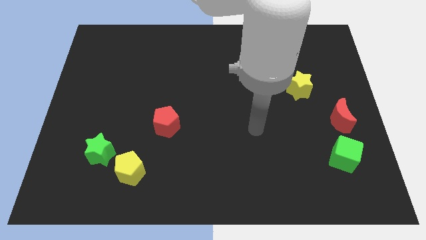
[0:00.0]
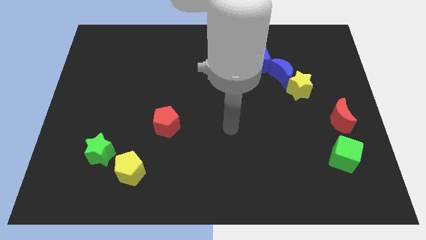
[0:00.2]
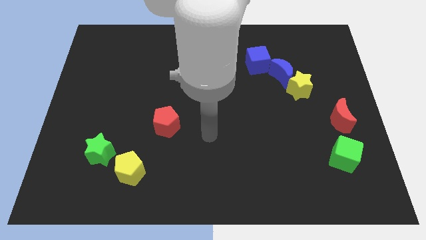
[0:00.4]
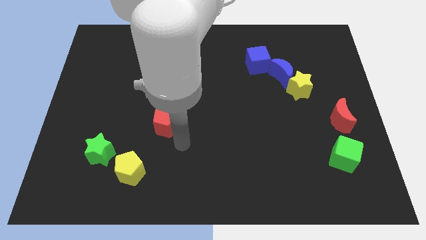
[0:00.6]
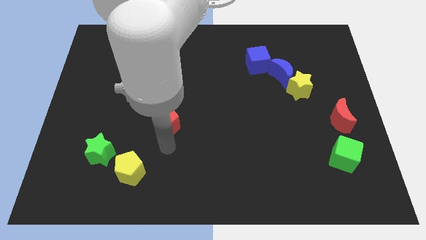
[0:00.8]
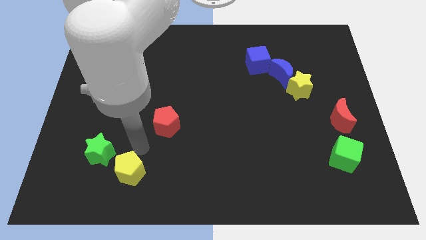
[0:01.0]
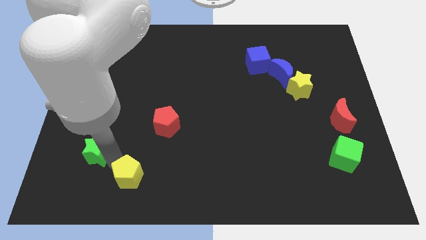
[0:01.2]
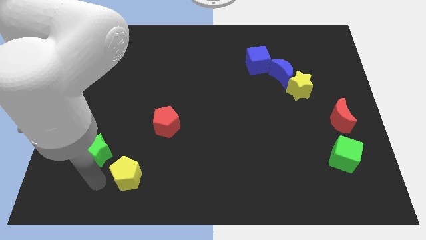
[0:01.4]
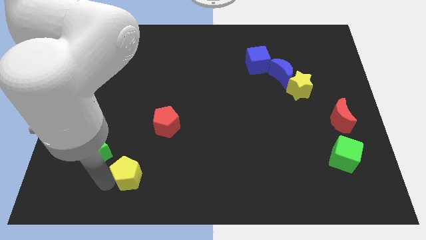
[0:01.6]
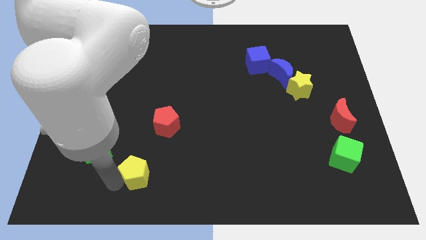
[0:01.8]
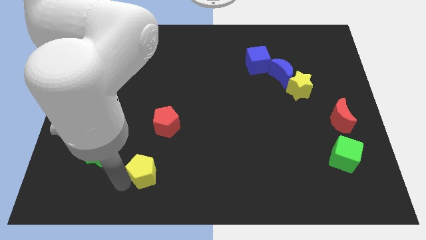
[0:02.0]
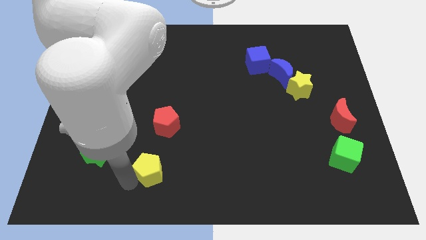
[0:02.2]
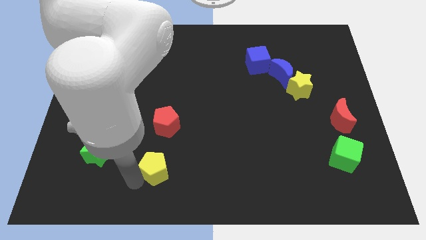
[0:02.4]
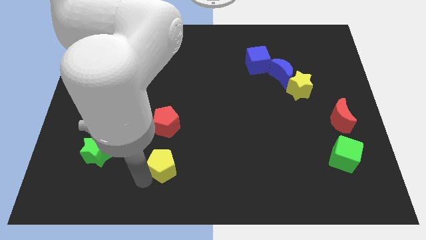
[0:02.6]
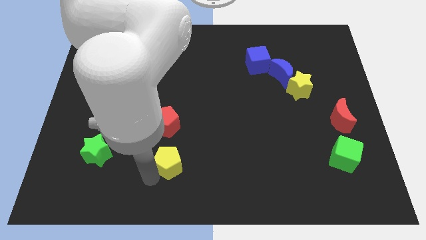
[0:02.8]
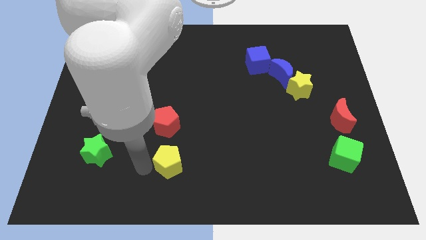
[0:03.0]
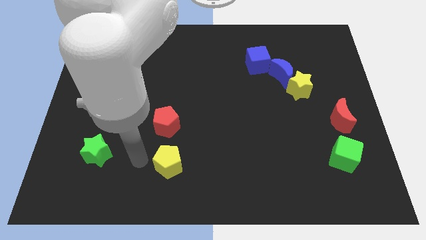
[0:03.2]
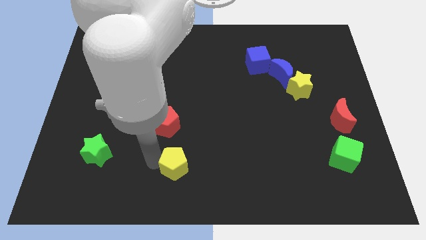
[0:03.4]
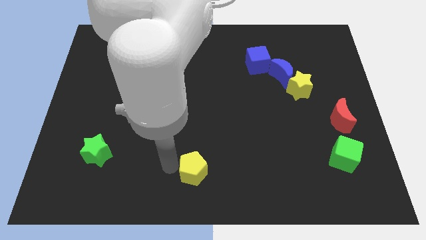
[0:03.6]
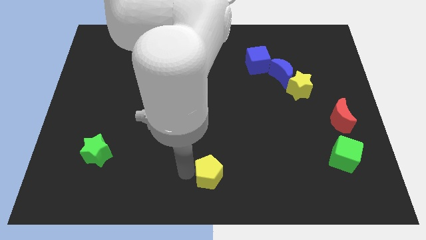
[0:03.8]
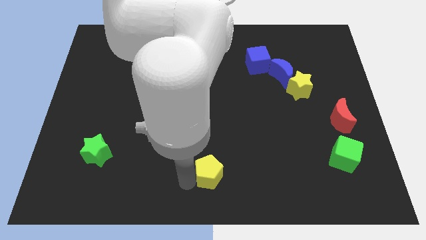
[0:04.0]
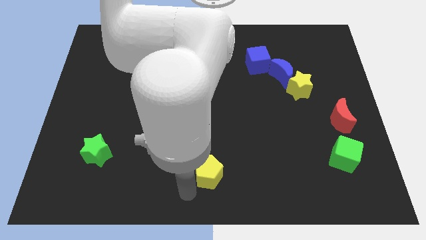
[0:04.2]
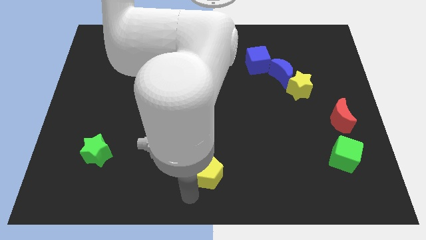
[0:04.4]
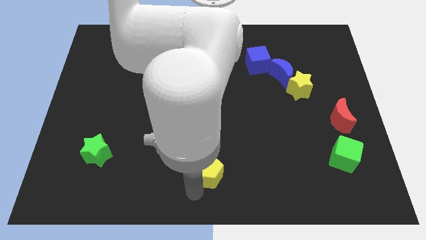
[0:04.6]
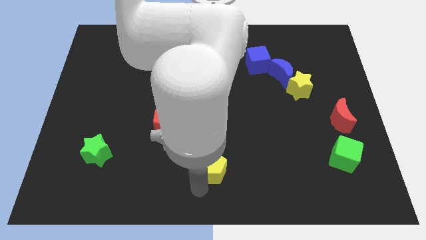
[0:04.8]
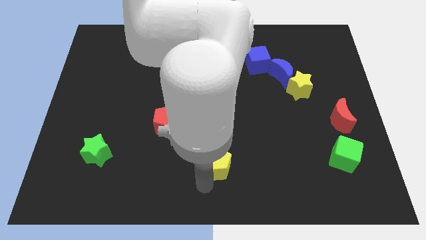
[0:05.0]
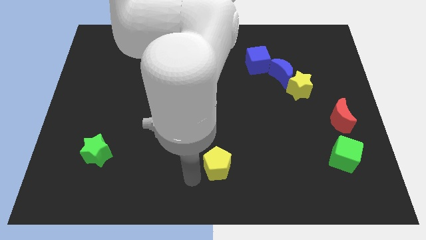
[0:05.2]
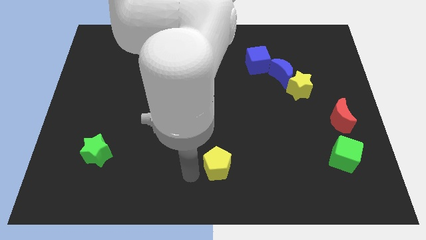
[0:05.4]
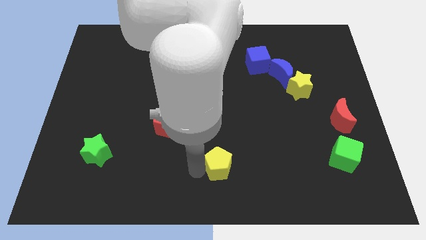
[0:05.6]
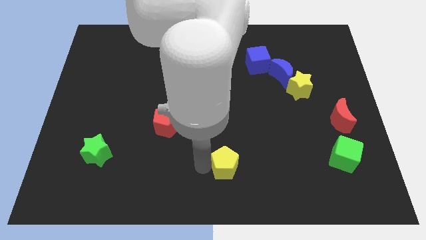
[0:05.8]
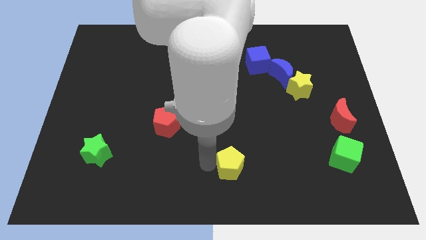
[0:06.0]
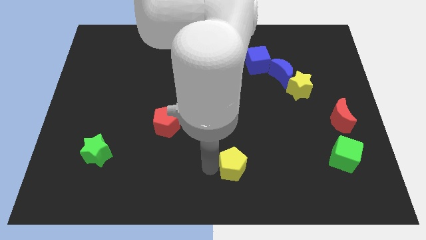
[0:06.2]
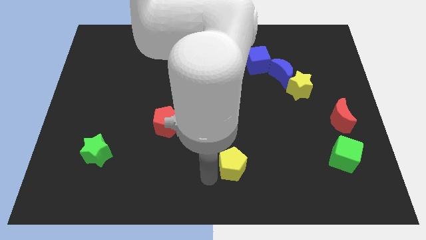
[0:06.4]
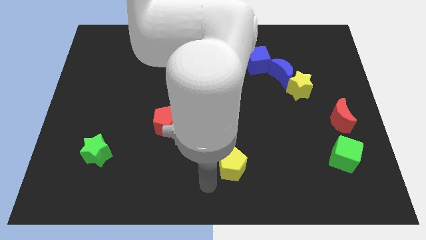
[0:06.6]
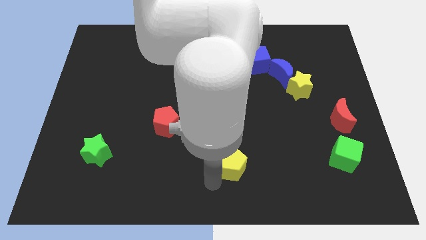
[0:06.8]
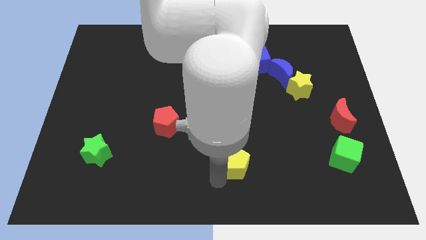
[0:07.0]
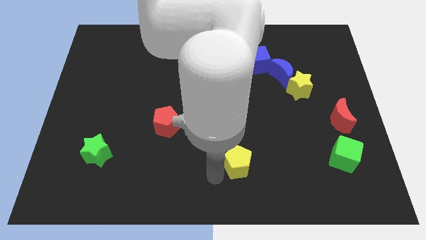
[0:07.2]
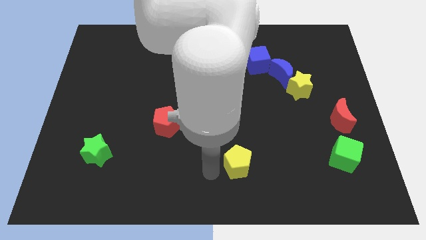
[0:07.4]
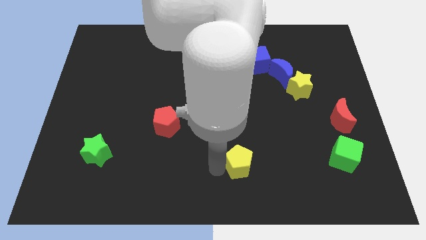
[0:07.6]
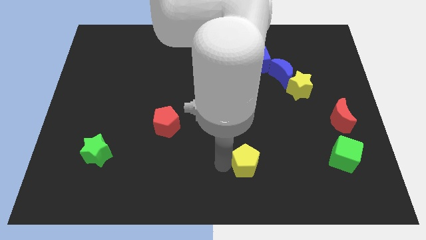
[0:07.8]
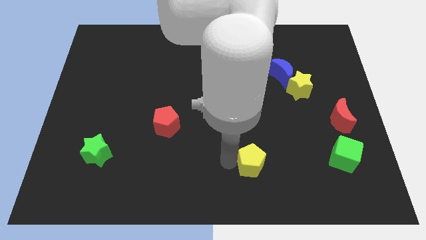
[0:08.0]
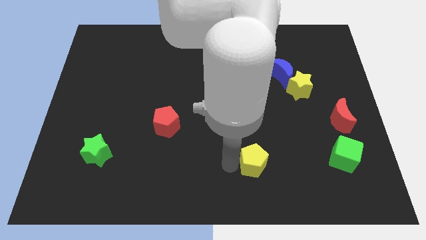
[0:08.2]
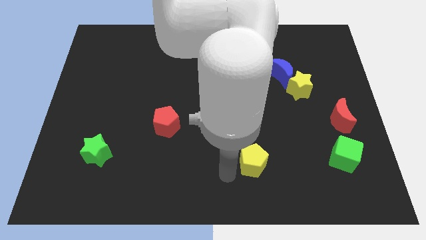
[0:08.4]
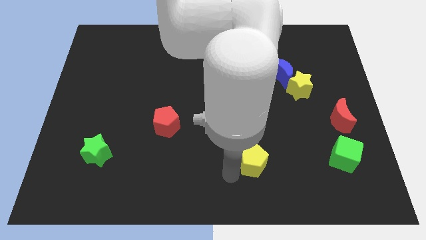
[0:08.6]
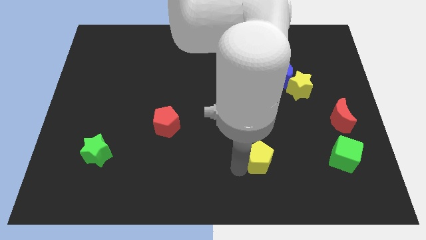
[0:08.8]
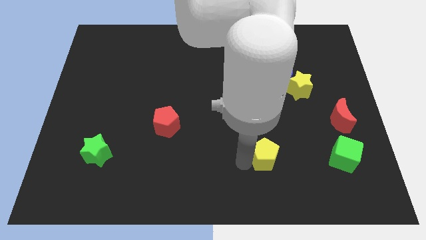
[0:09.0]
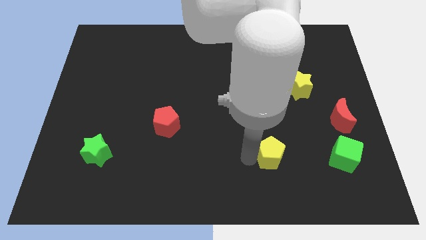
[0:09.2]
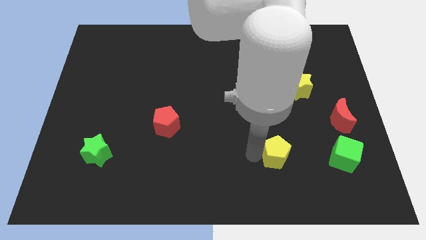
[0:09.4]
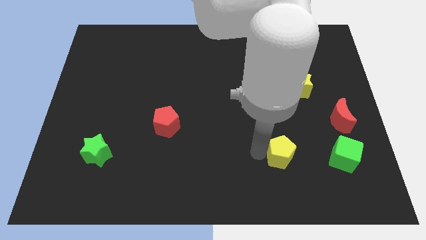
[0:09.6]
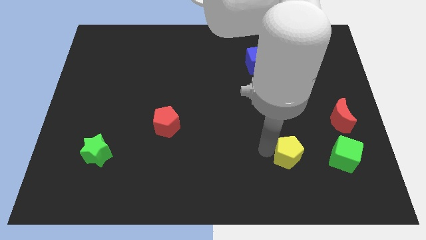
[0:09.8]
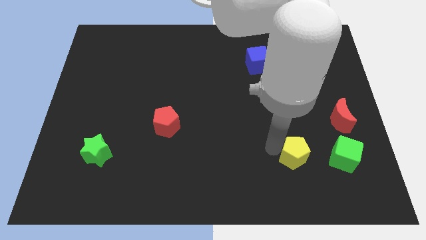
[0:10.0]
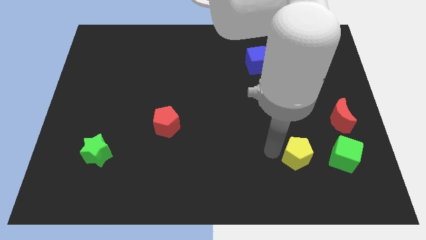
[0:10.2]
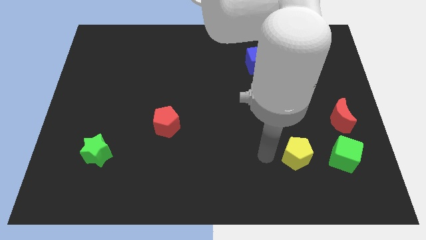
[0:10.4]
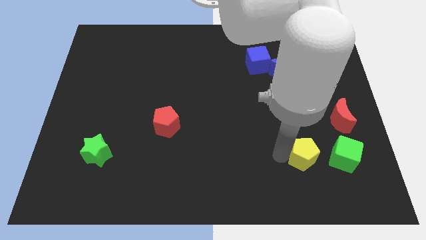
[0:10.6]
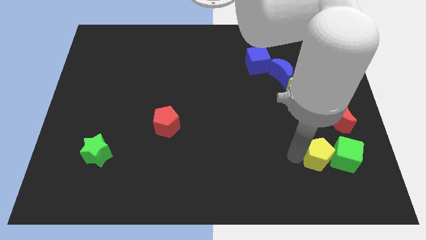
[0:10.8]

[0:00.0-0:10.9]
put the yellow pentagon close to the green cube

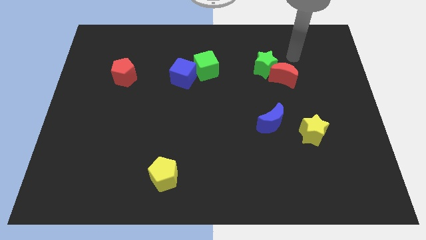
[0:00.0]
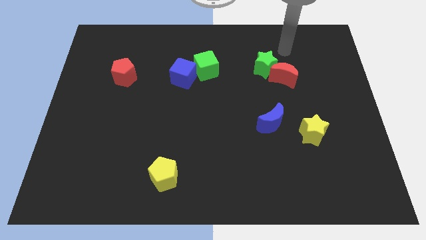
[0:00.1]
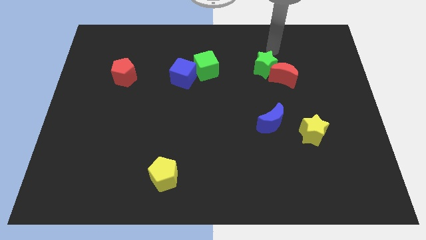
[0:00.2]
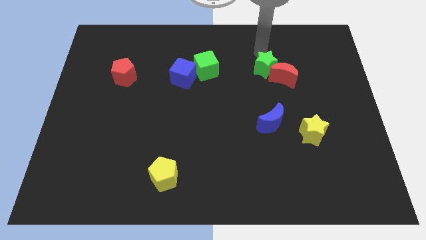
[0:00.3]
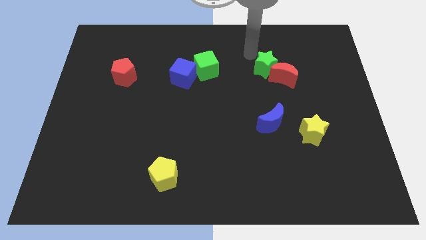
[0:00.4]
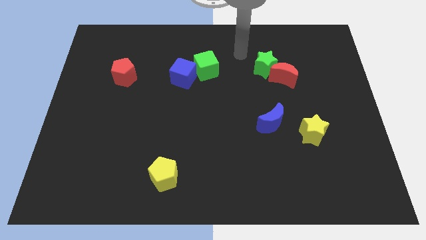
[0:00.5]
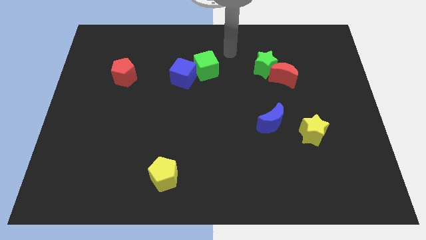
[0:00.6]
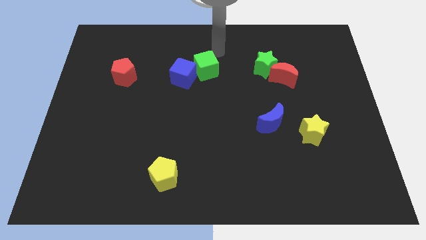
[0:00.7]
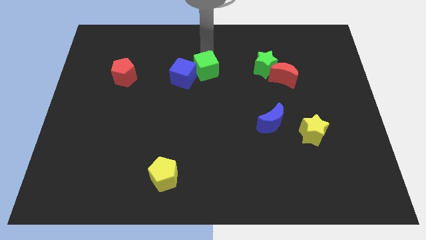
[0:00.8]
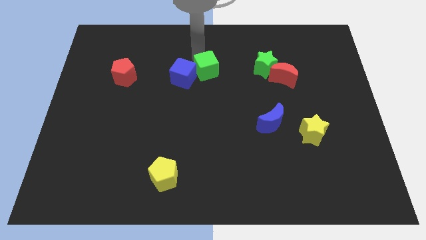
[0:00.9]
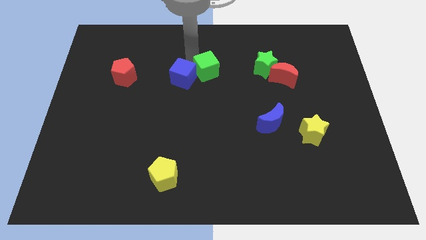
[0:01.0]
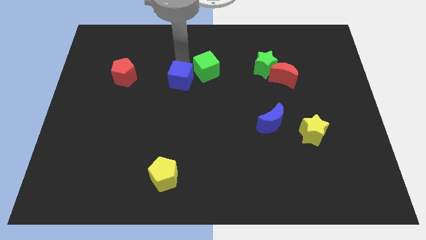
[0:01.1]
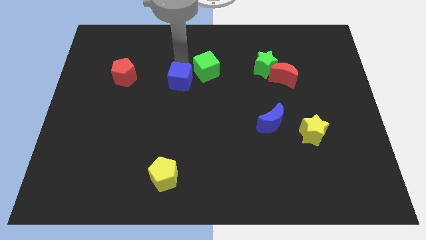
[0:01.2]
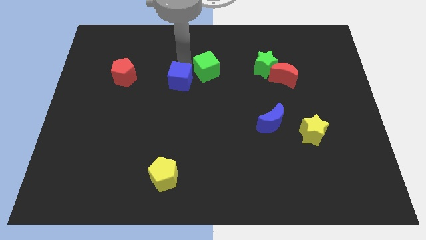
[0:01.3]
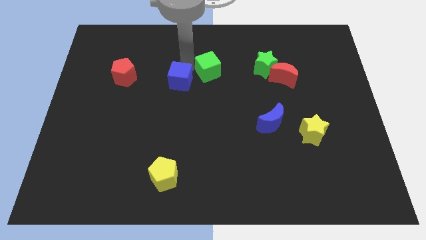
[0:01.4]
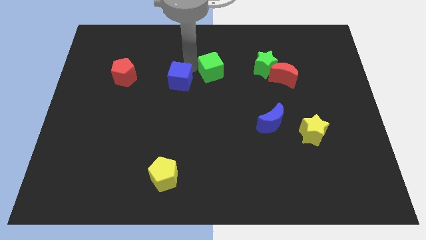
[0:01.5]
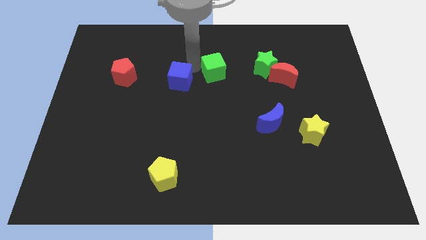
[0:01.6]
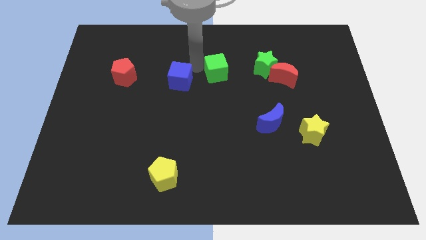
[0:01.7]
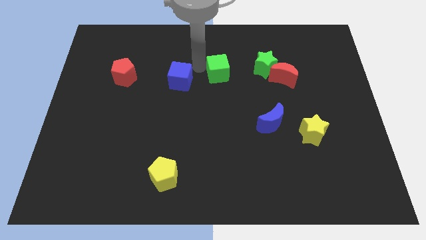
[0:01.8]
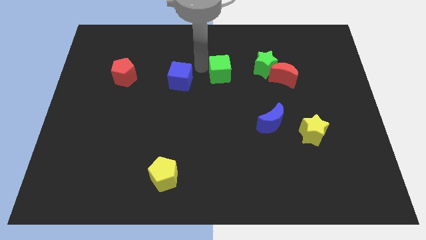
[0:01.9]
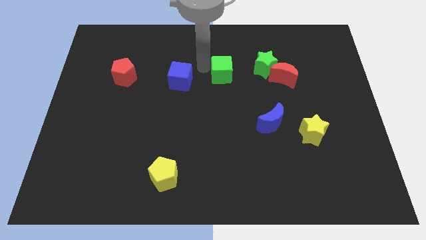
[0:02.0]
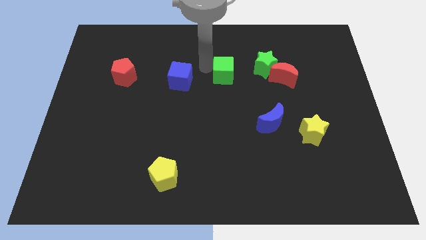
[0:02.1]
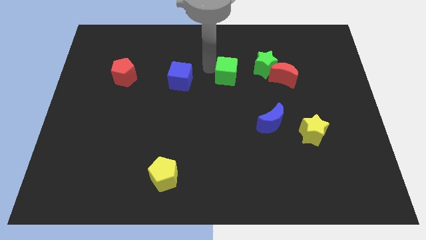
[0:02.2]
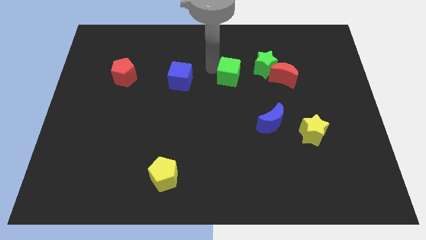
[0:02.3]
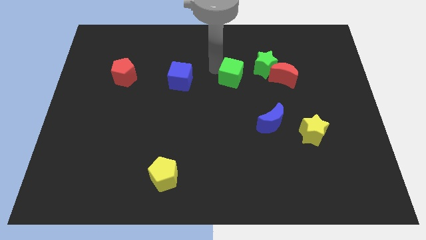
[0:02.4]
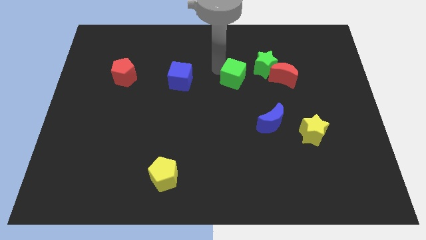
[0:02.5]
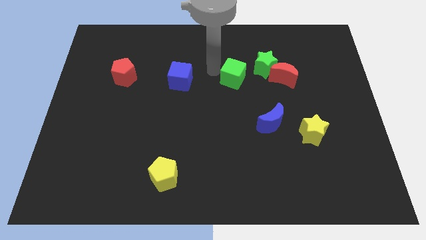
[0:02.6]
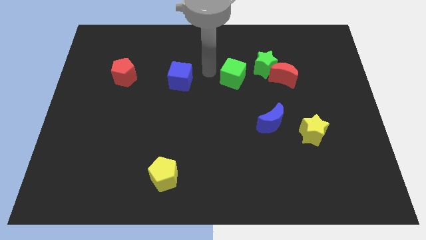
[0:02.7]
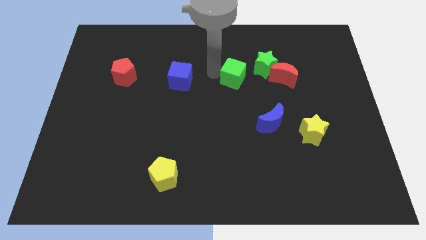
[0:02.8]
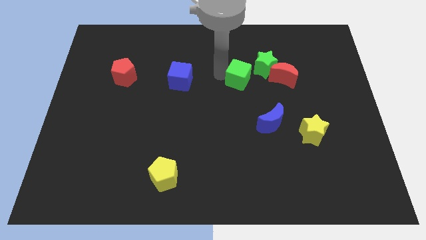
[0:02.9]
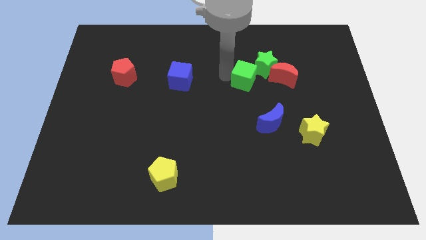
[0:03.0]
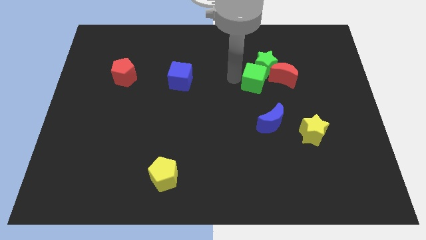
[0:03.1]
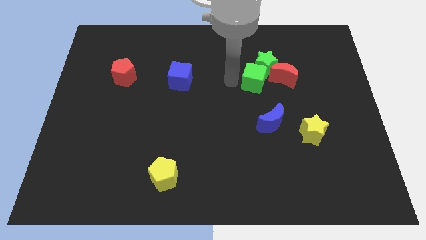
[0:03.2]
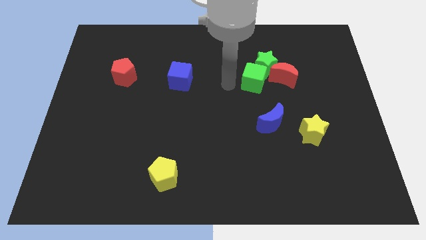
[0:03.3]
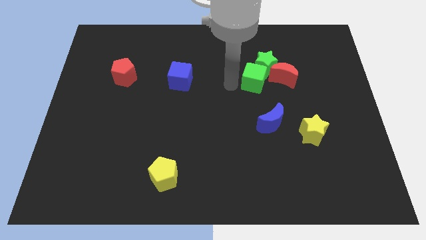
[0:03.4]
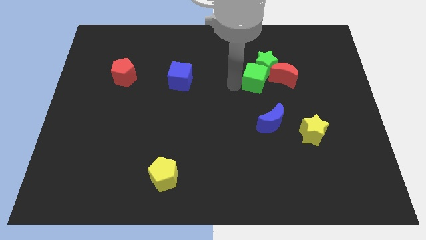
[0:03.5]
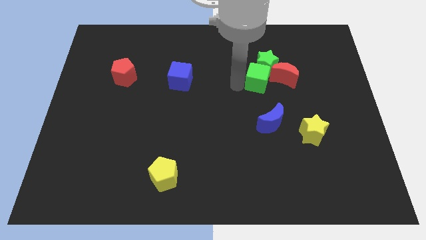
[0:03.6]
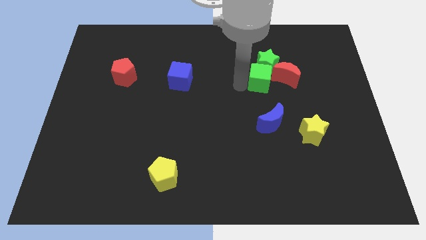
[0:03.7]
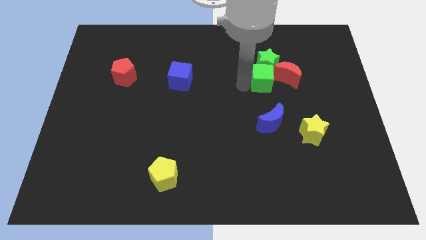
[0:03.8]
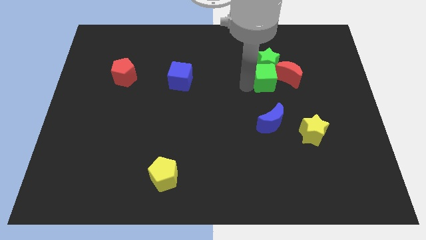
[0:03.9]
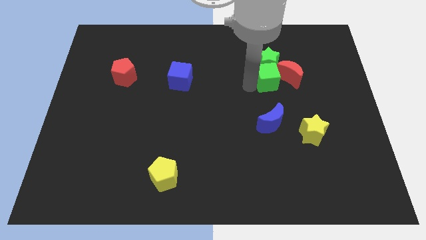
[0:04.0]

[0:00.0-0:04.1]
push the green cube to the red moon
